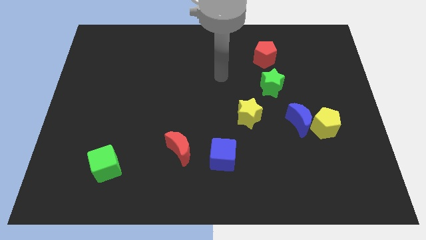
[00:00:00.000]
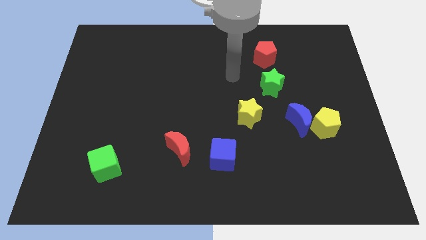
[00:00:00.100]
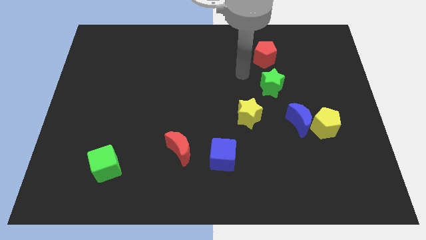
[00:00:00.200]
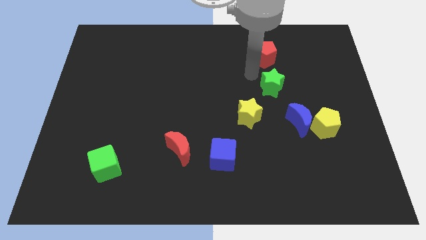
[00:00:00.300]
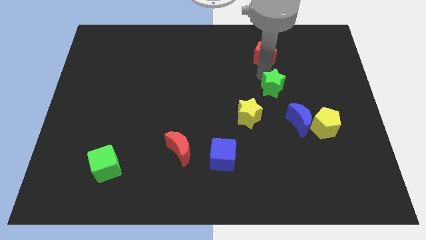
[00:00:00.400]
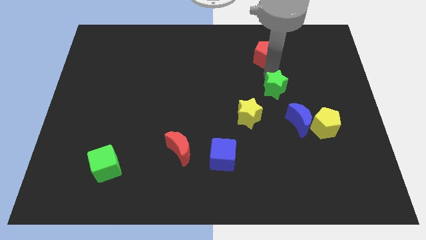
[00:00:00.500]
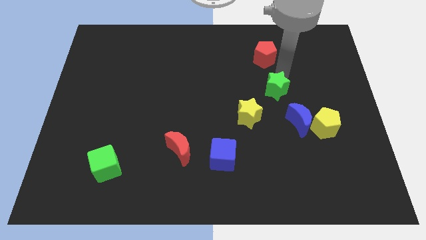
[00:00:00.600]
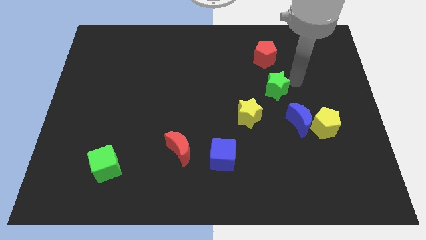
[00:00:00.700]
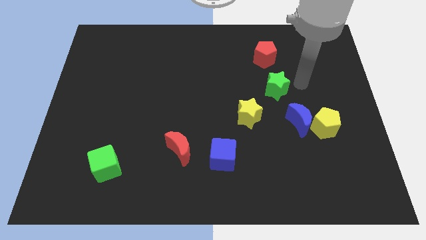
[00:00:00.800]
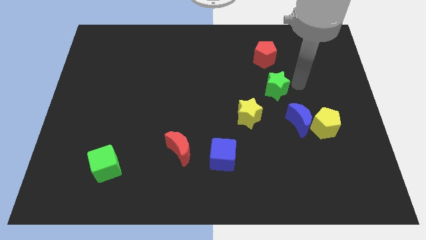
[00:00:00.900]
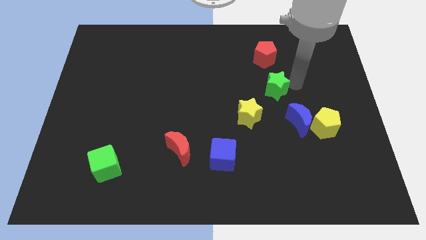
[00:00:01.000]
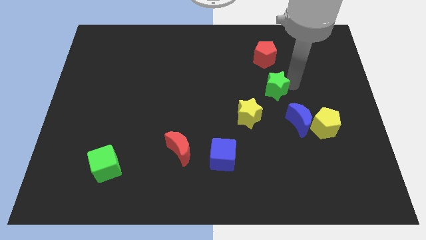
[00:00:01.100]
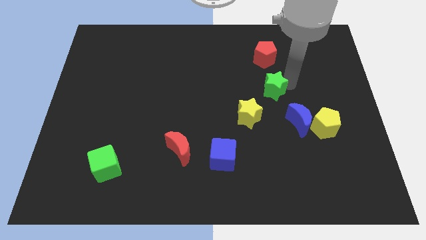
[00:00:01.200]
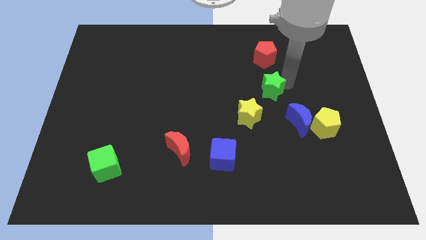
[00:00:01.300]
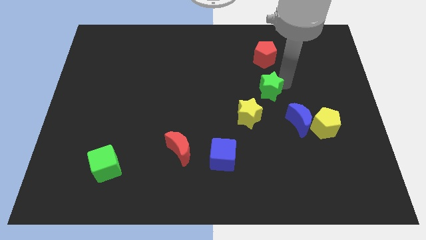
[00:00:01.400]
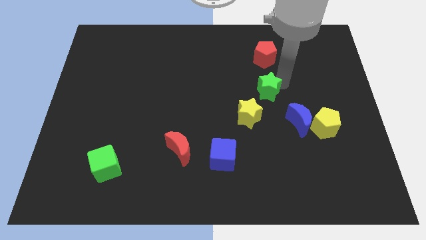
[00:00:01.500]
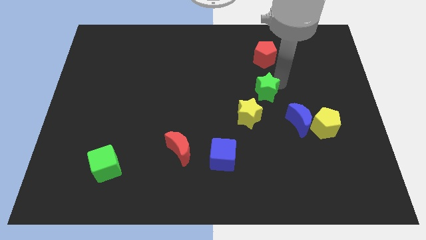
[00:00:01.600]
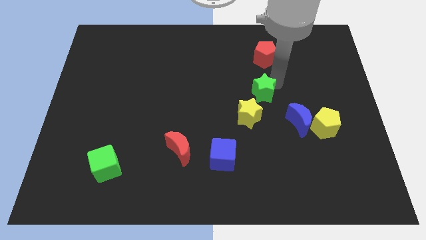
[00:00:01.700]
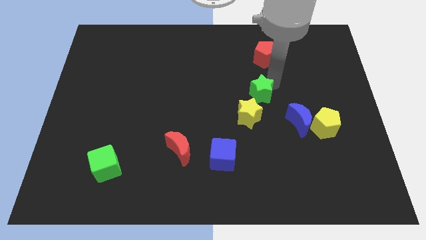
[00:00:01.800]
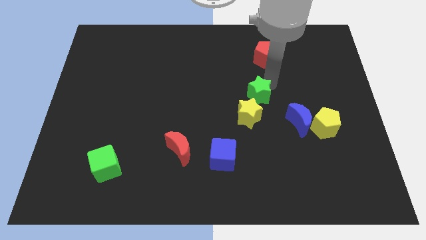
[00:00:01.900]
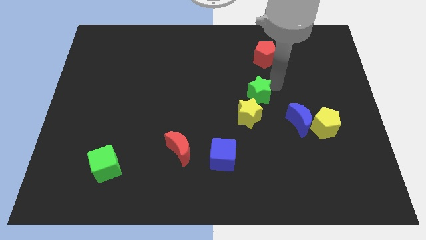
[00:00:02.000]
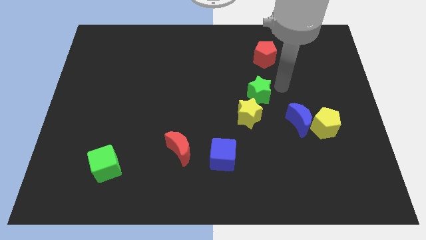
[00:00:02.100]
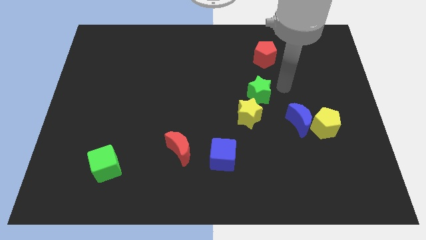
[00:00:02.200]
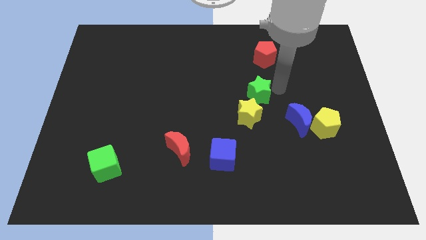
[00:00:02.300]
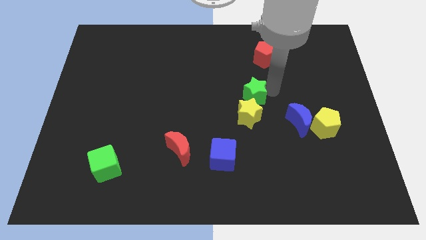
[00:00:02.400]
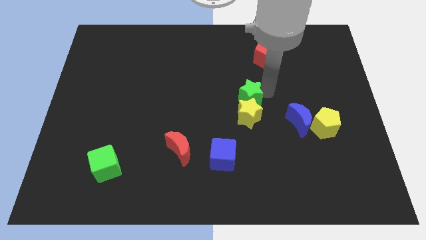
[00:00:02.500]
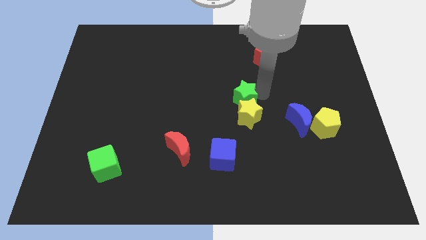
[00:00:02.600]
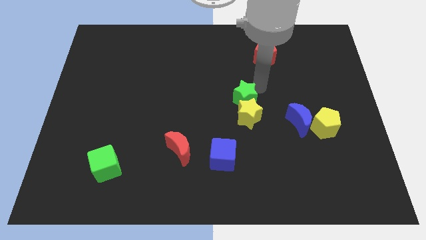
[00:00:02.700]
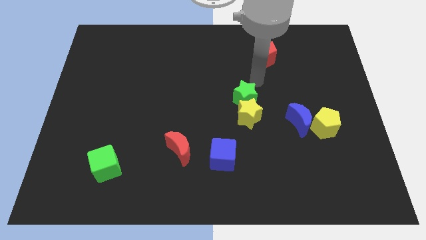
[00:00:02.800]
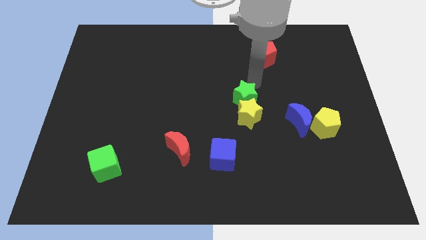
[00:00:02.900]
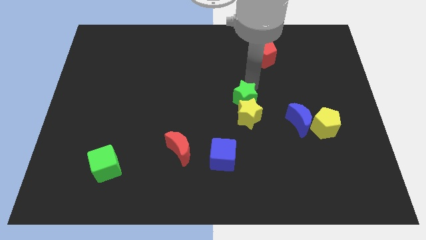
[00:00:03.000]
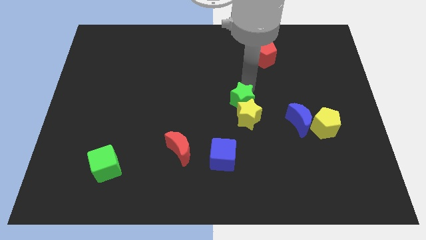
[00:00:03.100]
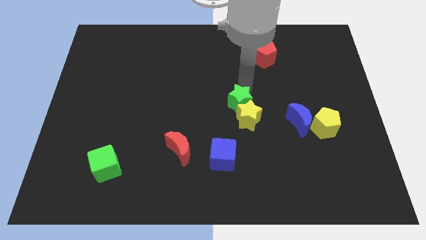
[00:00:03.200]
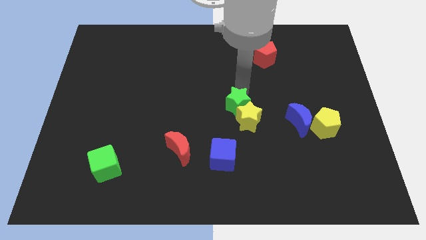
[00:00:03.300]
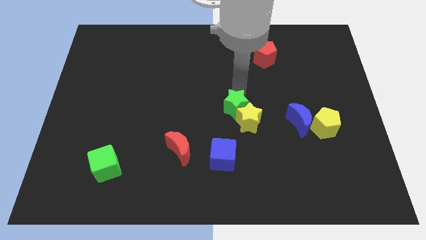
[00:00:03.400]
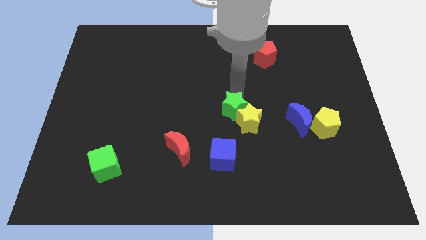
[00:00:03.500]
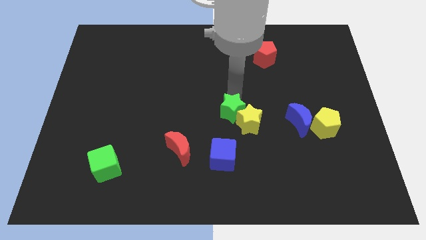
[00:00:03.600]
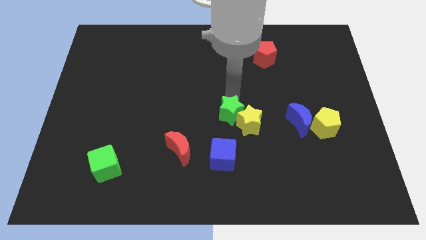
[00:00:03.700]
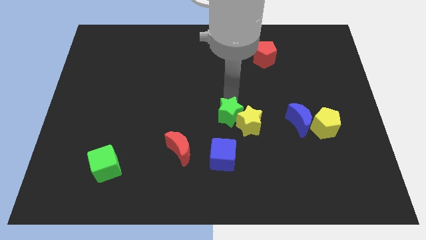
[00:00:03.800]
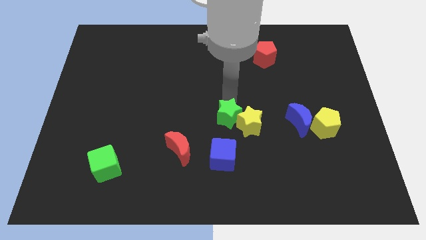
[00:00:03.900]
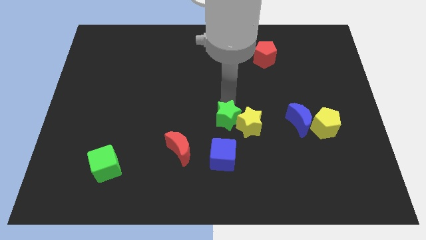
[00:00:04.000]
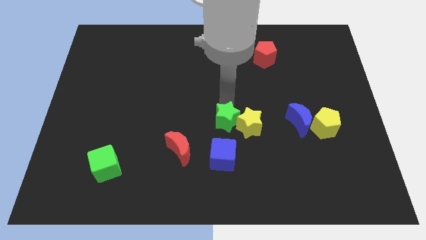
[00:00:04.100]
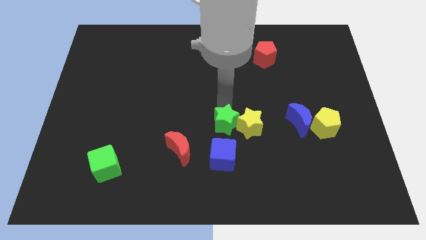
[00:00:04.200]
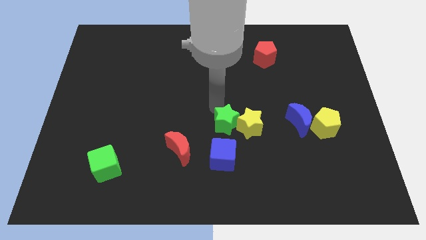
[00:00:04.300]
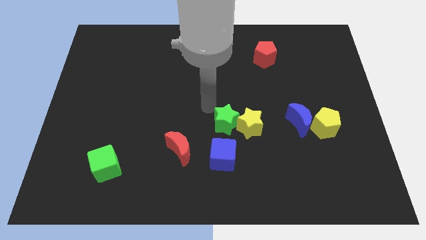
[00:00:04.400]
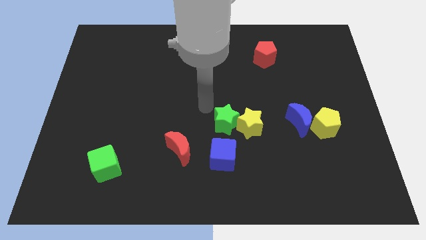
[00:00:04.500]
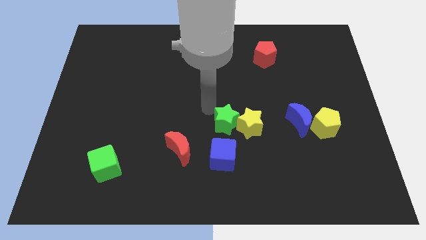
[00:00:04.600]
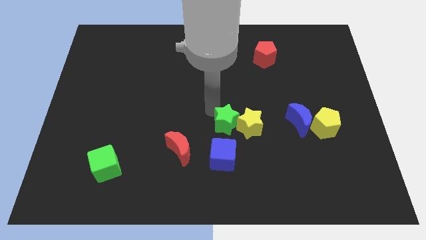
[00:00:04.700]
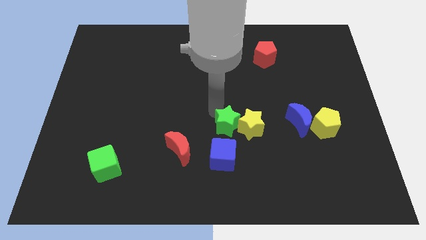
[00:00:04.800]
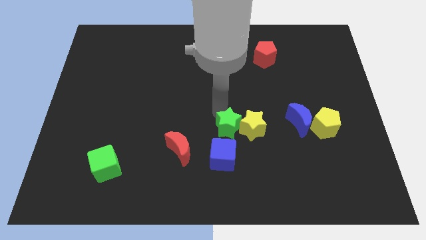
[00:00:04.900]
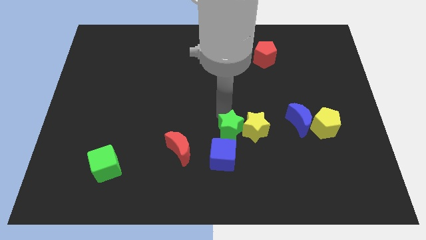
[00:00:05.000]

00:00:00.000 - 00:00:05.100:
slide the green star downwards a bit

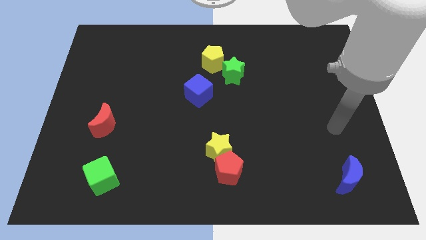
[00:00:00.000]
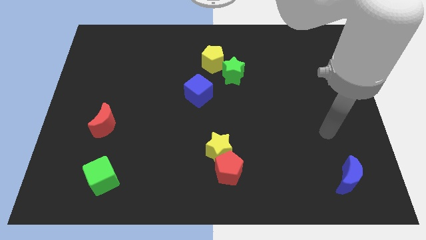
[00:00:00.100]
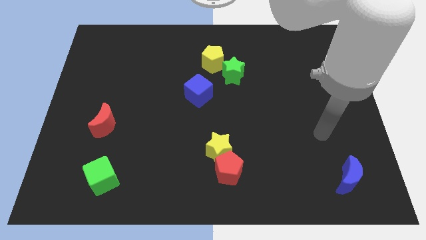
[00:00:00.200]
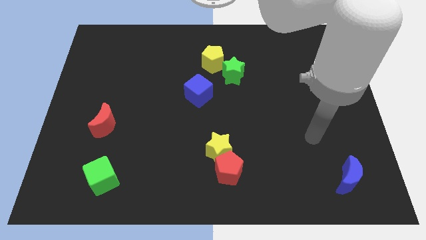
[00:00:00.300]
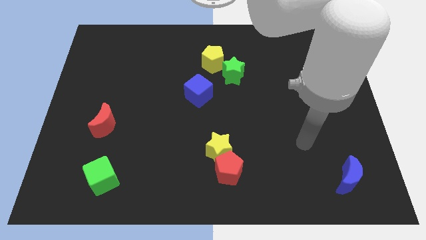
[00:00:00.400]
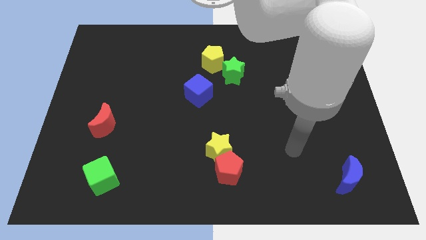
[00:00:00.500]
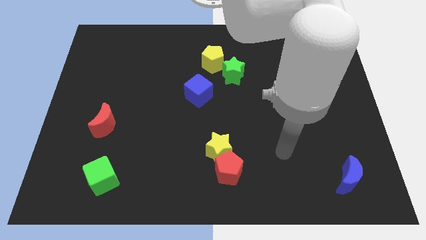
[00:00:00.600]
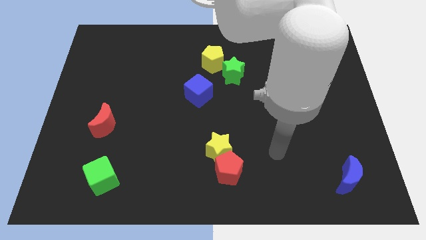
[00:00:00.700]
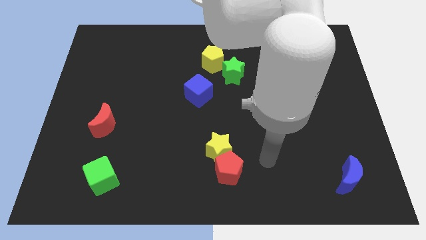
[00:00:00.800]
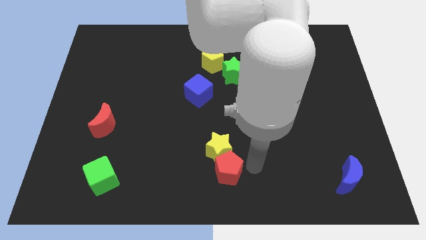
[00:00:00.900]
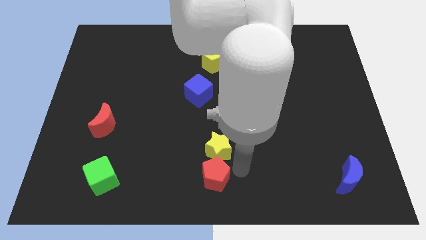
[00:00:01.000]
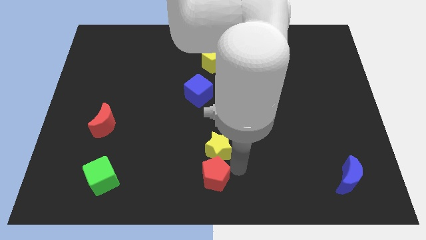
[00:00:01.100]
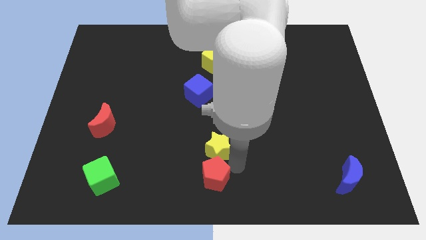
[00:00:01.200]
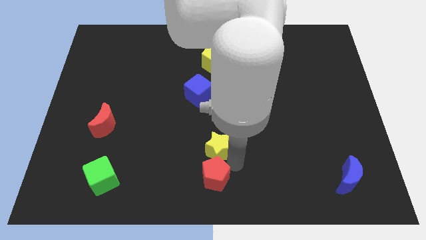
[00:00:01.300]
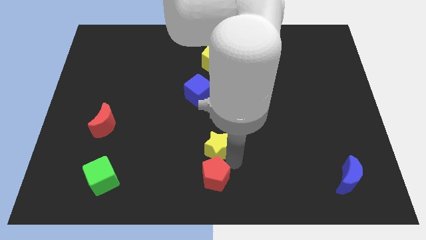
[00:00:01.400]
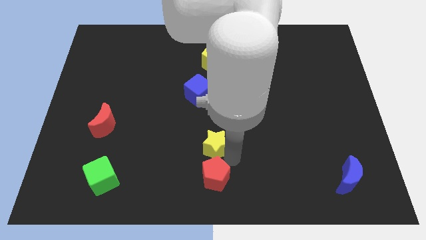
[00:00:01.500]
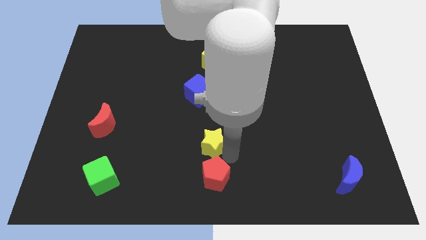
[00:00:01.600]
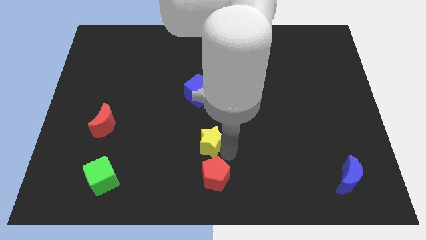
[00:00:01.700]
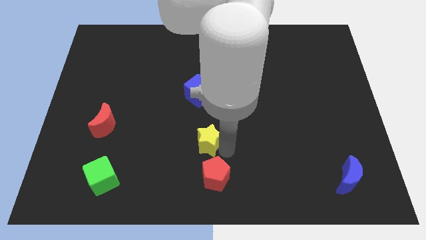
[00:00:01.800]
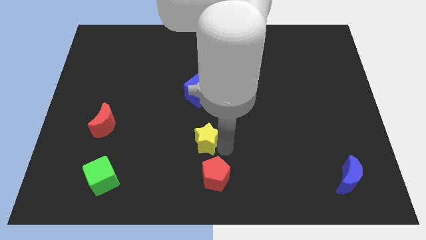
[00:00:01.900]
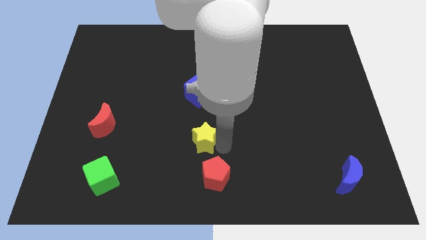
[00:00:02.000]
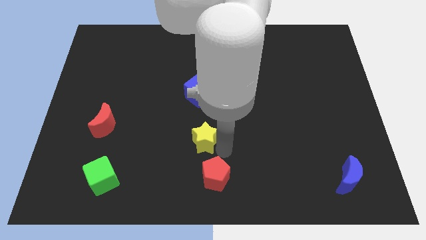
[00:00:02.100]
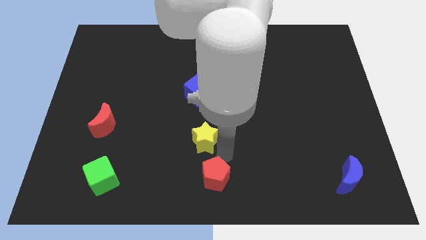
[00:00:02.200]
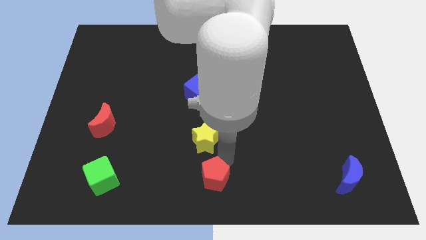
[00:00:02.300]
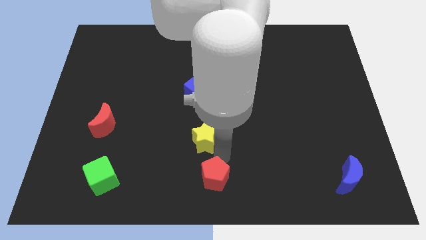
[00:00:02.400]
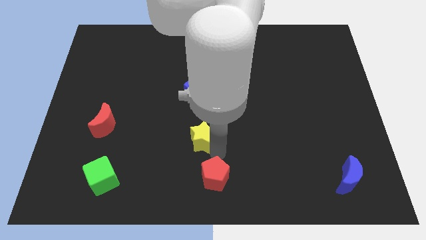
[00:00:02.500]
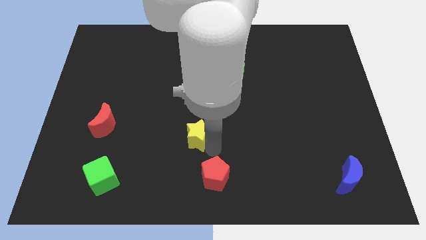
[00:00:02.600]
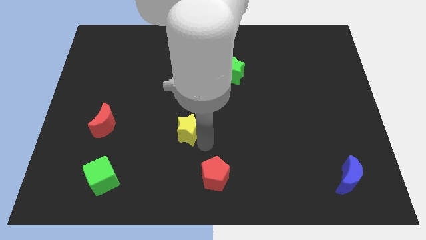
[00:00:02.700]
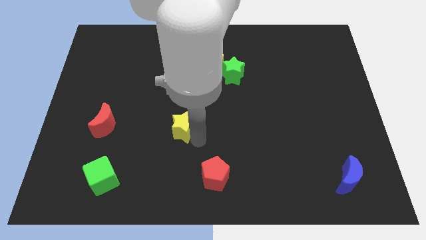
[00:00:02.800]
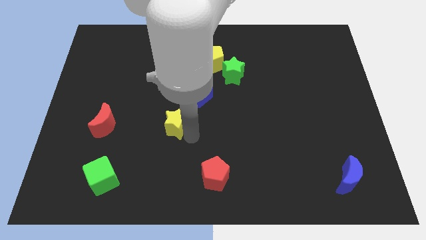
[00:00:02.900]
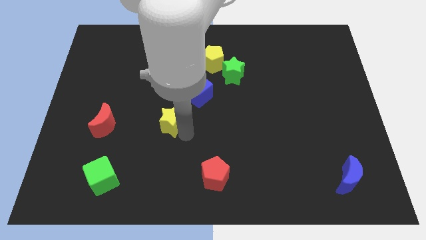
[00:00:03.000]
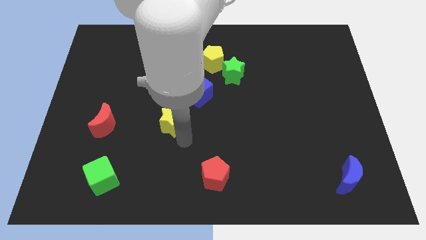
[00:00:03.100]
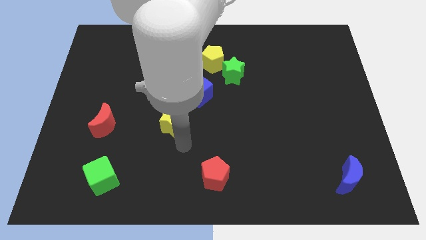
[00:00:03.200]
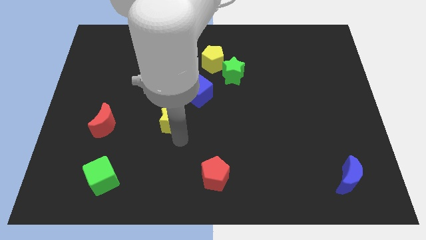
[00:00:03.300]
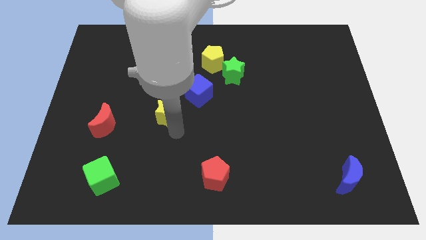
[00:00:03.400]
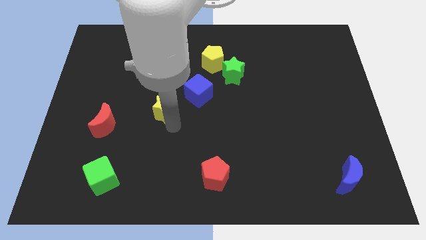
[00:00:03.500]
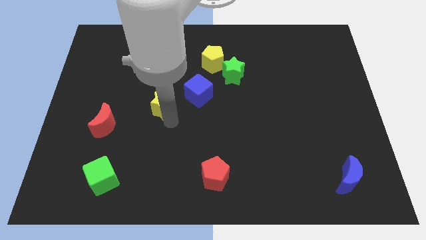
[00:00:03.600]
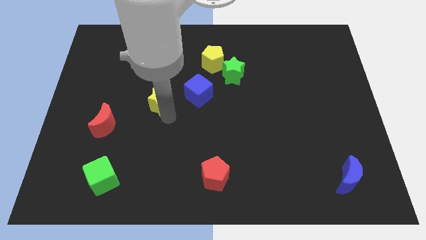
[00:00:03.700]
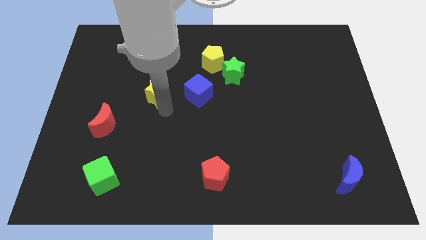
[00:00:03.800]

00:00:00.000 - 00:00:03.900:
move the yellow star up and then to the left
